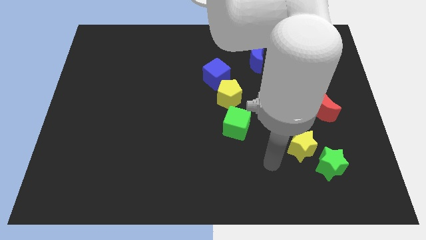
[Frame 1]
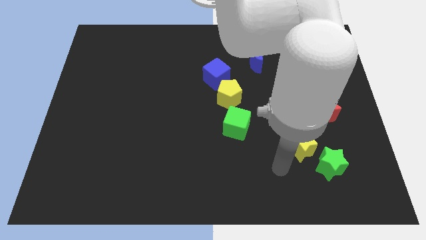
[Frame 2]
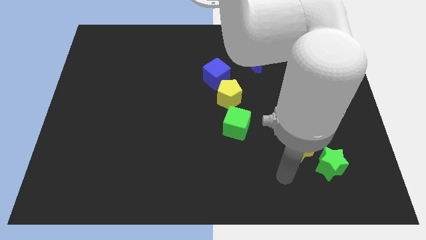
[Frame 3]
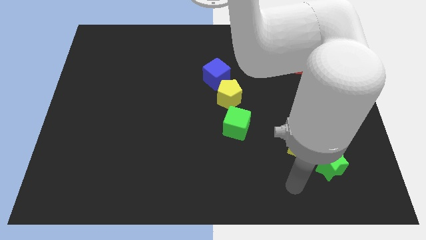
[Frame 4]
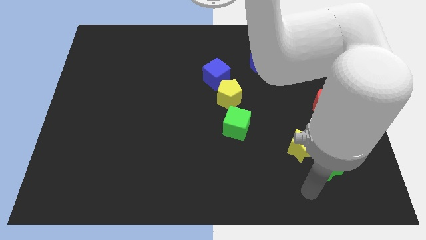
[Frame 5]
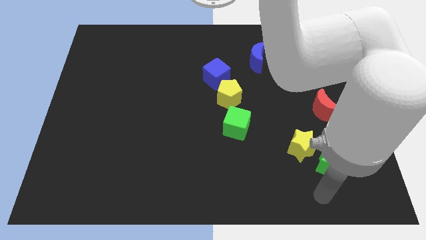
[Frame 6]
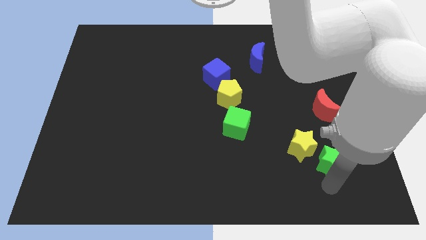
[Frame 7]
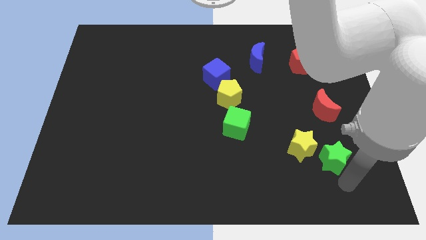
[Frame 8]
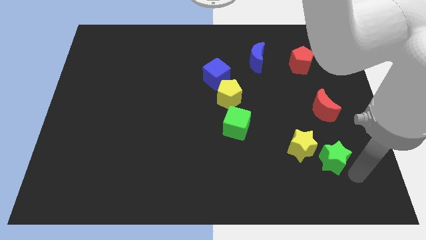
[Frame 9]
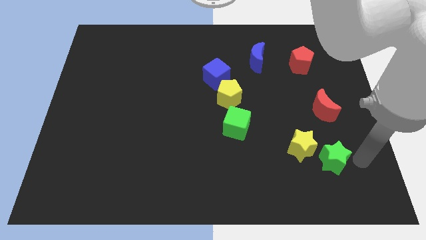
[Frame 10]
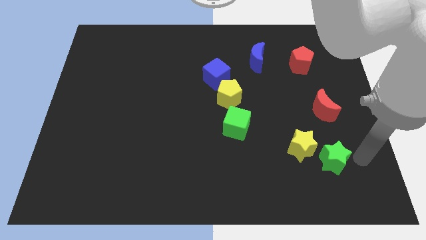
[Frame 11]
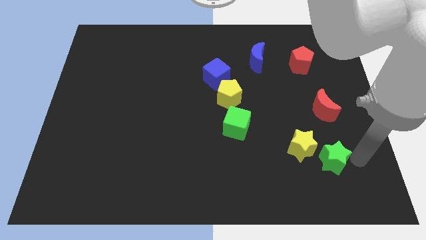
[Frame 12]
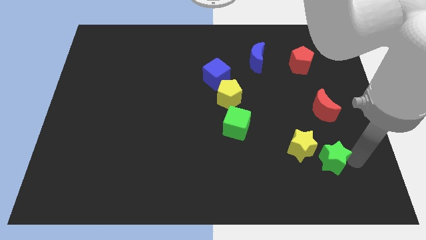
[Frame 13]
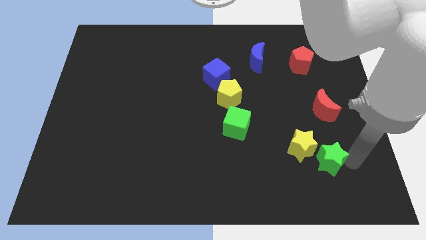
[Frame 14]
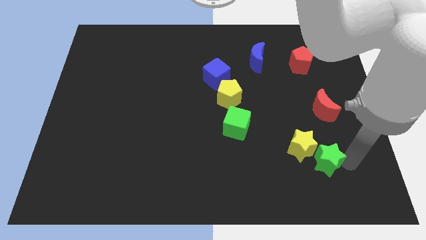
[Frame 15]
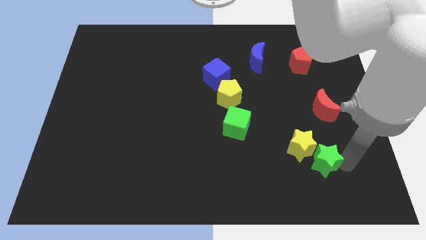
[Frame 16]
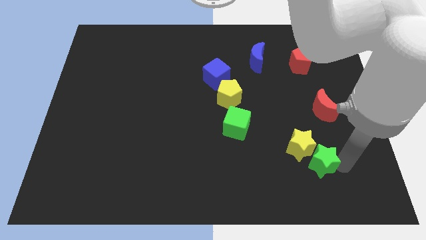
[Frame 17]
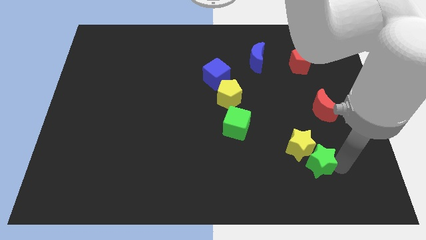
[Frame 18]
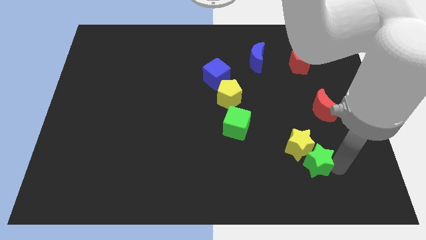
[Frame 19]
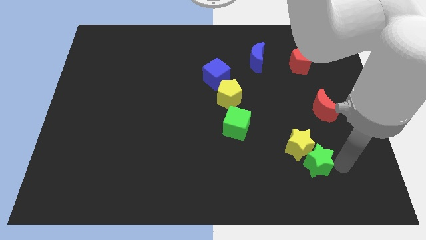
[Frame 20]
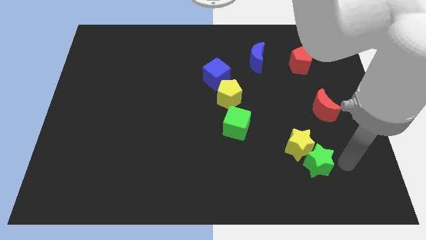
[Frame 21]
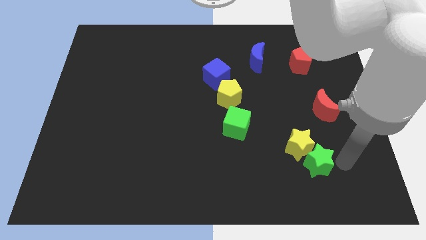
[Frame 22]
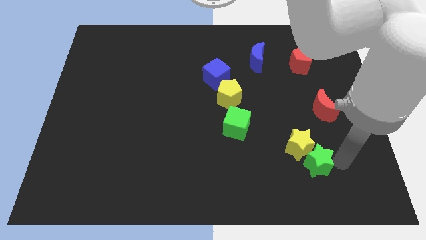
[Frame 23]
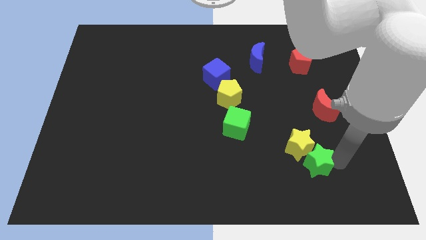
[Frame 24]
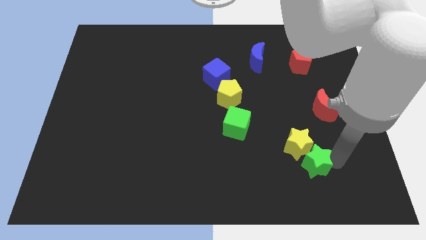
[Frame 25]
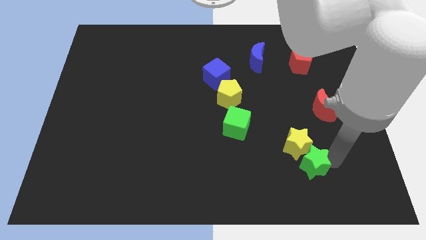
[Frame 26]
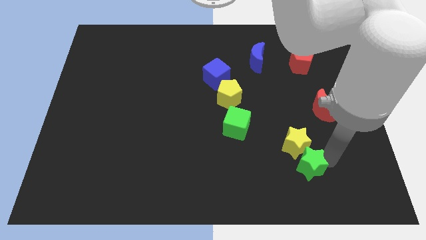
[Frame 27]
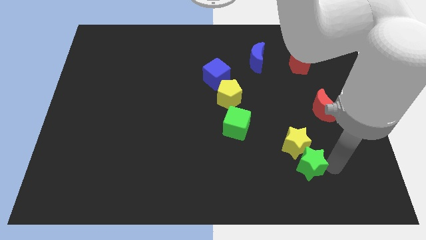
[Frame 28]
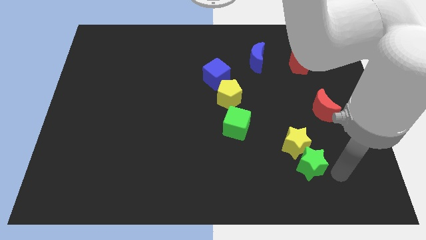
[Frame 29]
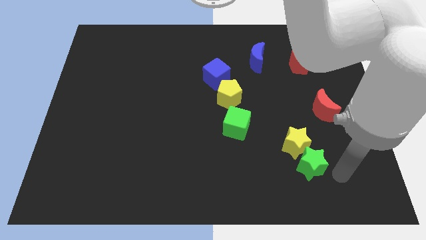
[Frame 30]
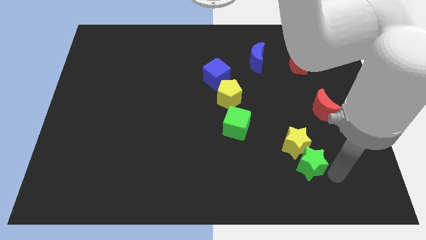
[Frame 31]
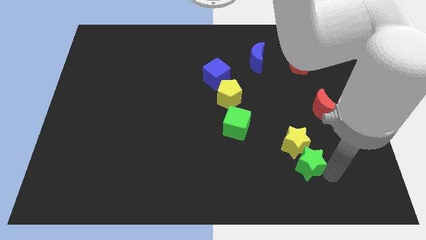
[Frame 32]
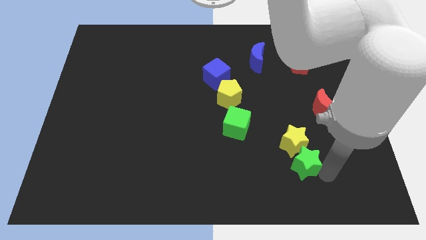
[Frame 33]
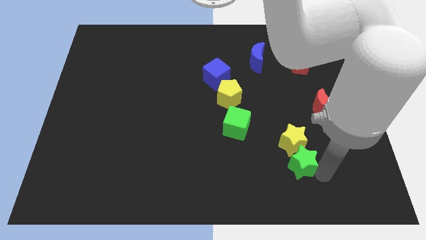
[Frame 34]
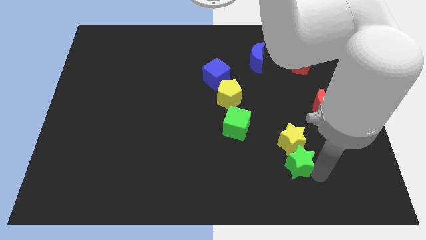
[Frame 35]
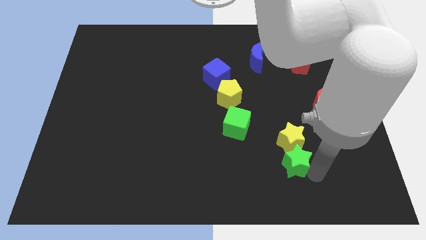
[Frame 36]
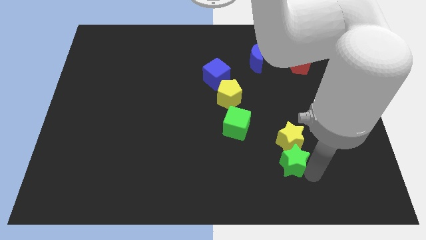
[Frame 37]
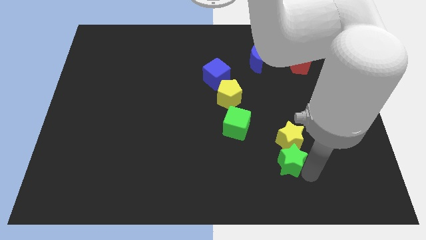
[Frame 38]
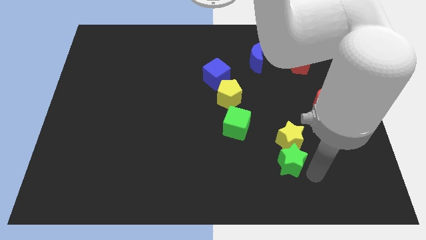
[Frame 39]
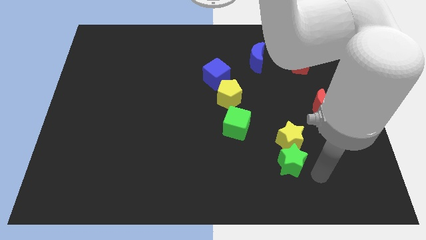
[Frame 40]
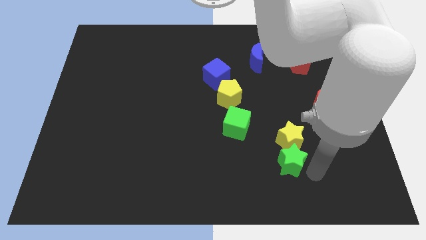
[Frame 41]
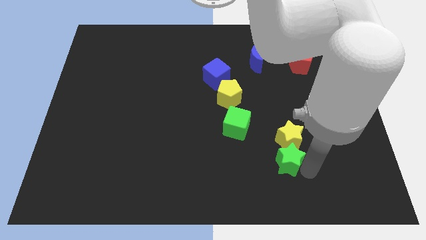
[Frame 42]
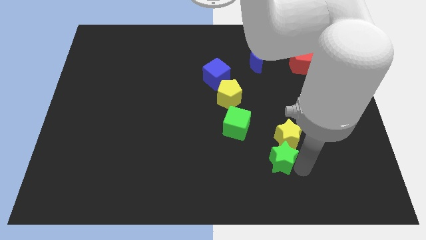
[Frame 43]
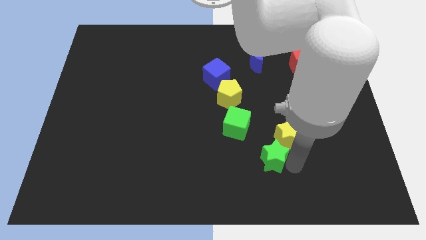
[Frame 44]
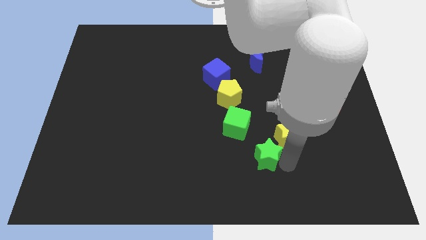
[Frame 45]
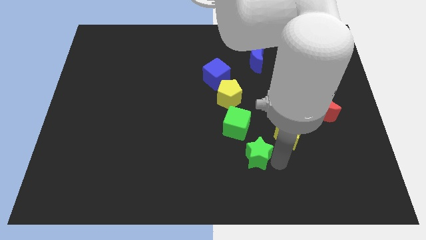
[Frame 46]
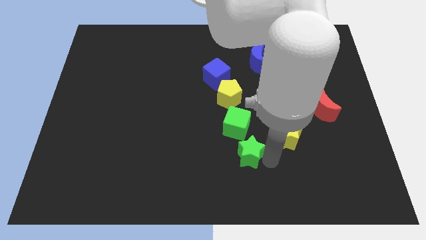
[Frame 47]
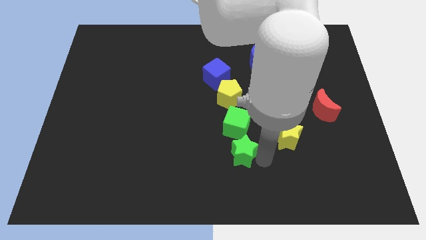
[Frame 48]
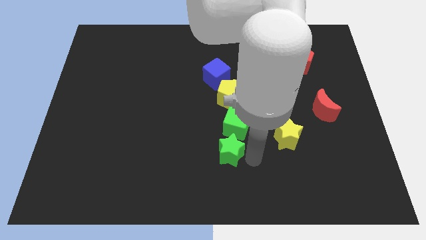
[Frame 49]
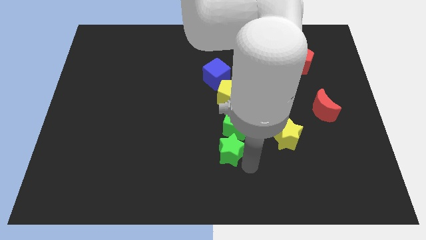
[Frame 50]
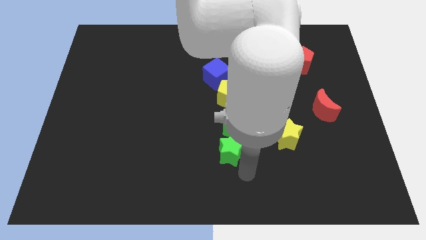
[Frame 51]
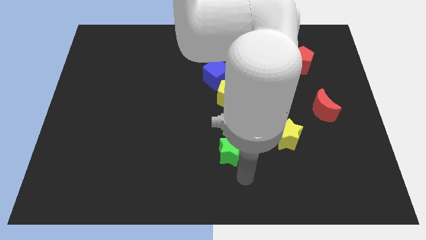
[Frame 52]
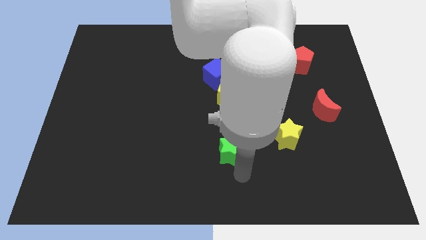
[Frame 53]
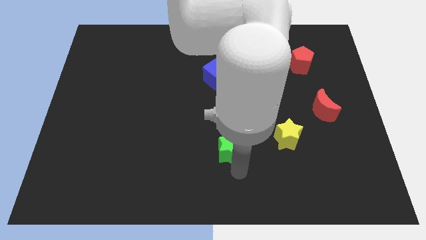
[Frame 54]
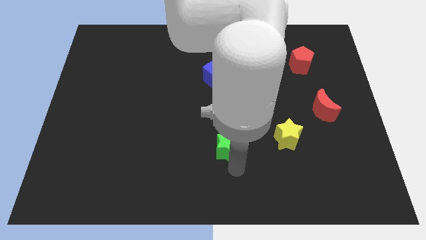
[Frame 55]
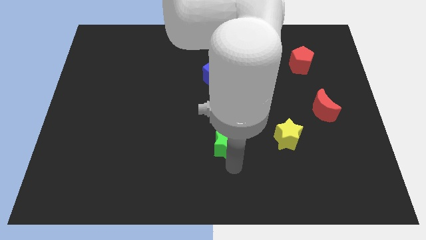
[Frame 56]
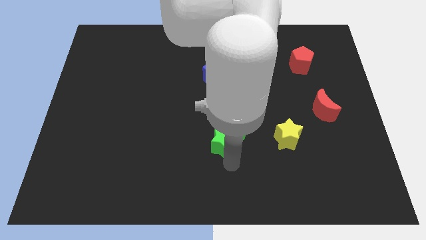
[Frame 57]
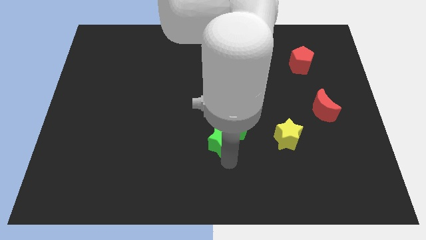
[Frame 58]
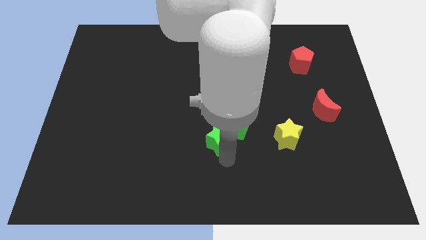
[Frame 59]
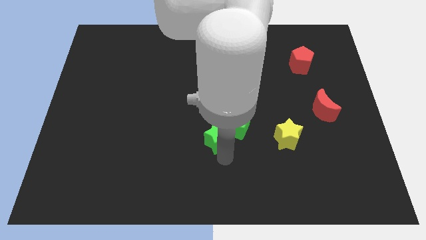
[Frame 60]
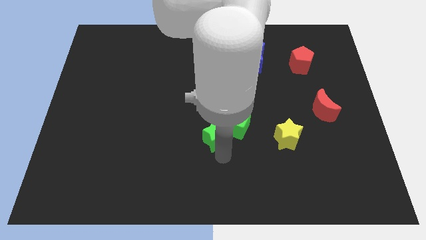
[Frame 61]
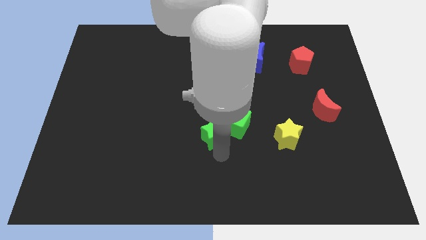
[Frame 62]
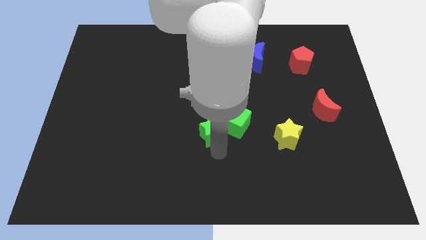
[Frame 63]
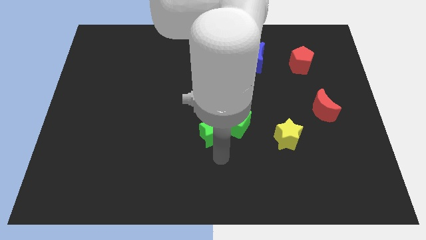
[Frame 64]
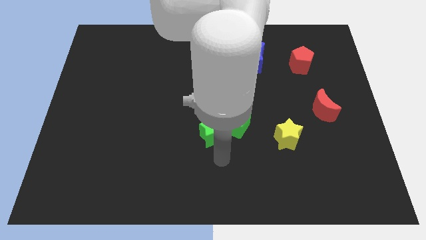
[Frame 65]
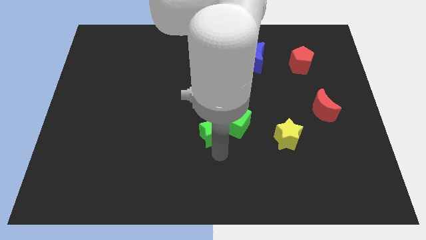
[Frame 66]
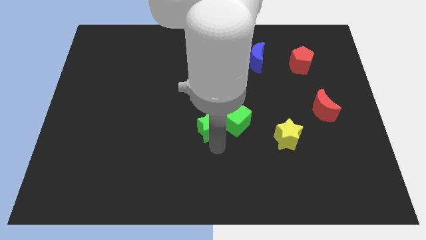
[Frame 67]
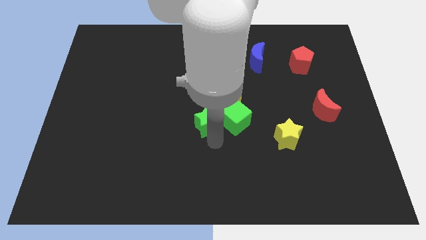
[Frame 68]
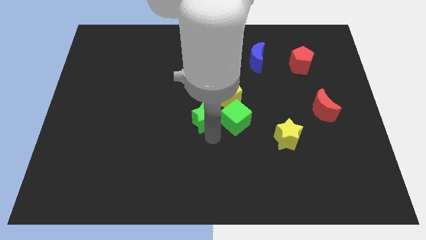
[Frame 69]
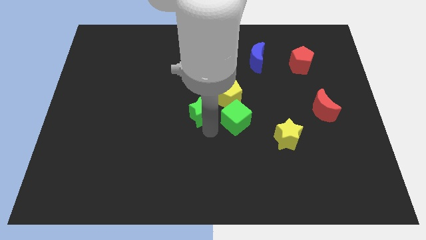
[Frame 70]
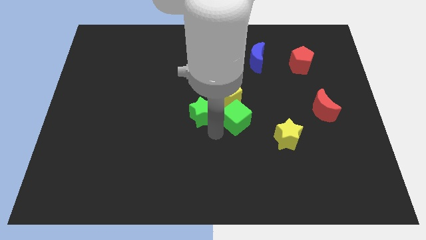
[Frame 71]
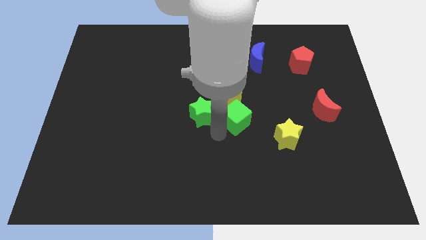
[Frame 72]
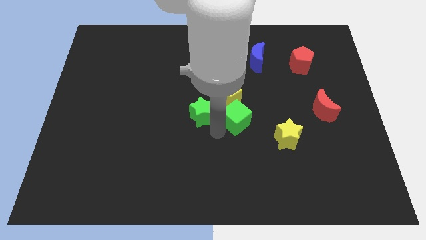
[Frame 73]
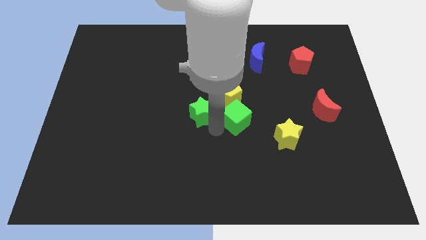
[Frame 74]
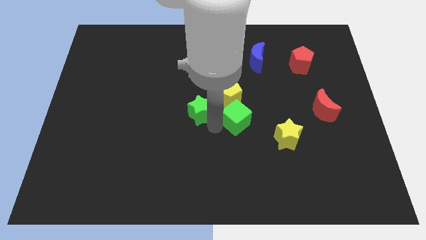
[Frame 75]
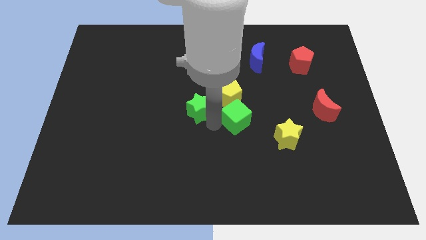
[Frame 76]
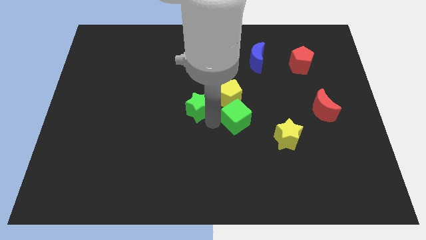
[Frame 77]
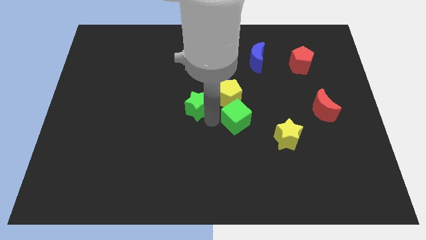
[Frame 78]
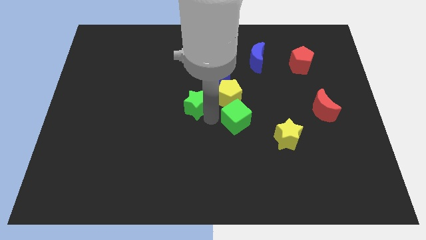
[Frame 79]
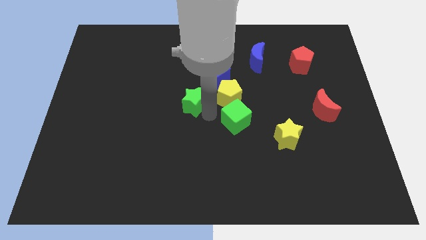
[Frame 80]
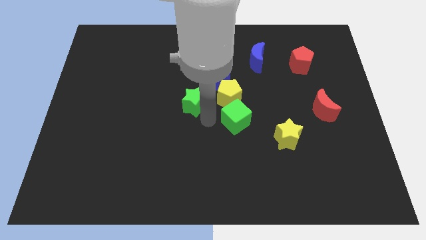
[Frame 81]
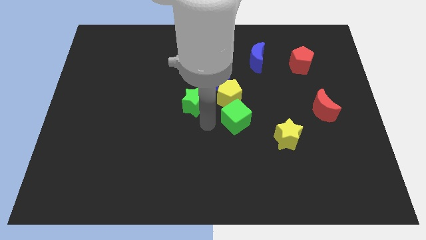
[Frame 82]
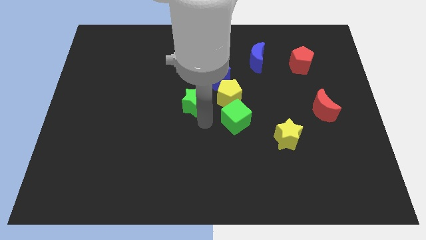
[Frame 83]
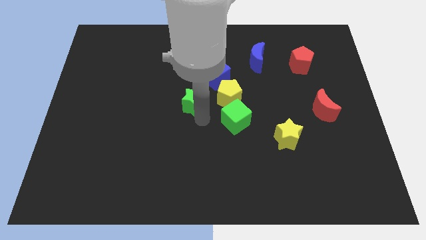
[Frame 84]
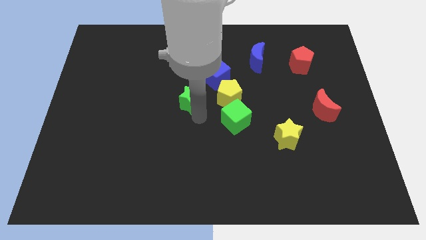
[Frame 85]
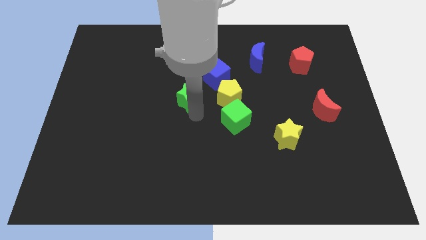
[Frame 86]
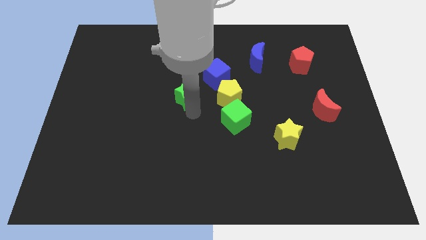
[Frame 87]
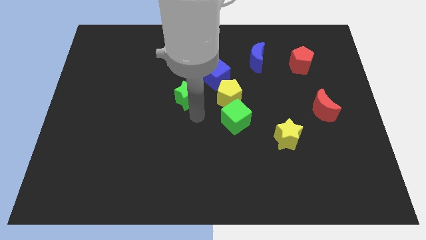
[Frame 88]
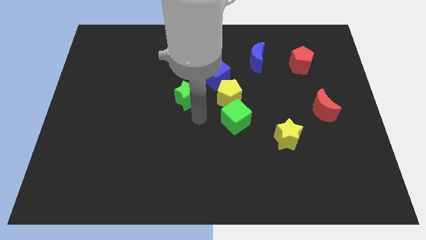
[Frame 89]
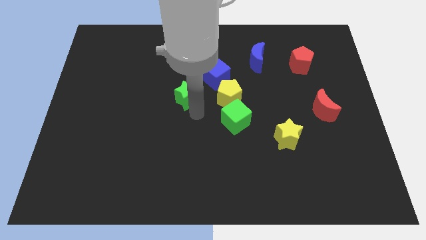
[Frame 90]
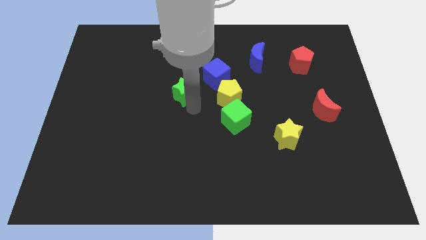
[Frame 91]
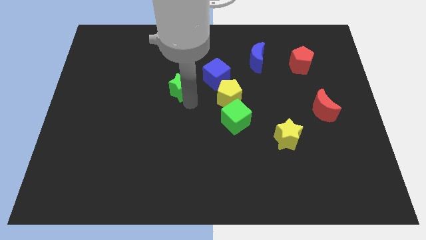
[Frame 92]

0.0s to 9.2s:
slide the green star to the left of the blue cube
